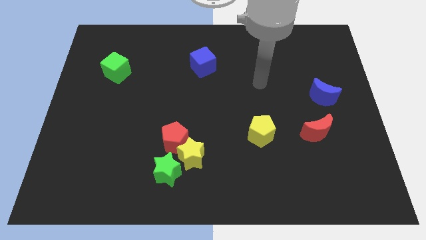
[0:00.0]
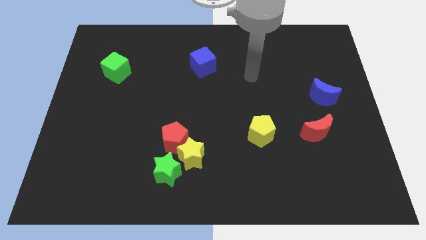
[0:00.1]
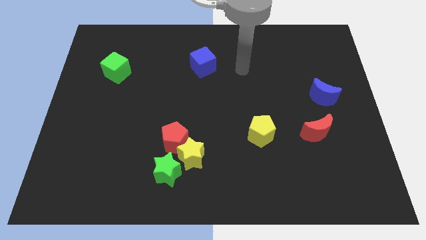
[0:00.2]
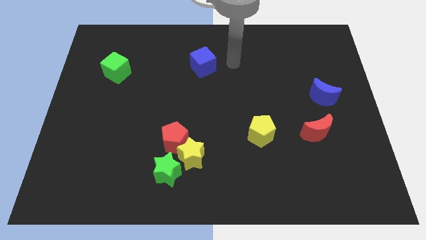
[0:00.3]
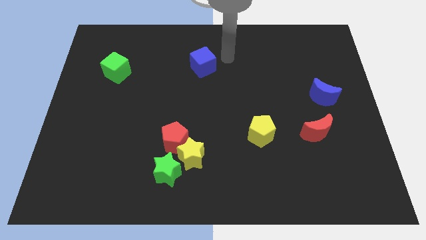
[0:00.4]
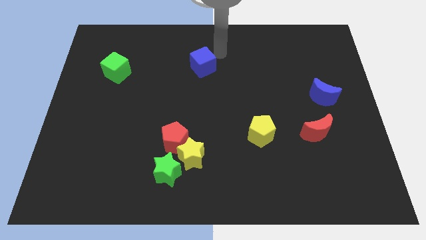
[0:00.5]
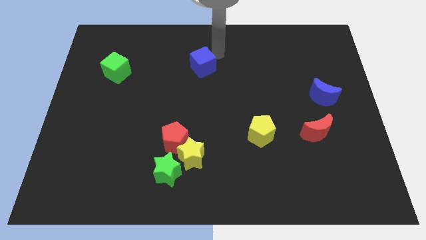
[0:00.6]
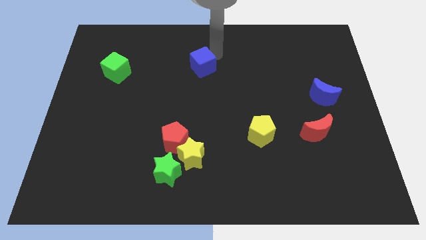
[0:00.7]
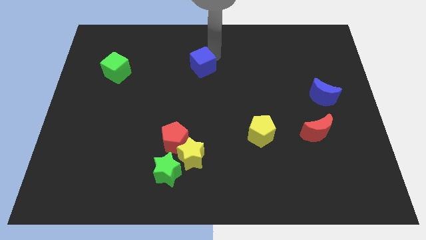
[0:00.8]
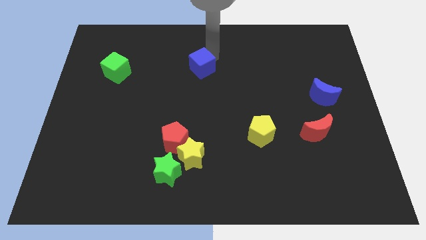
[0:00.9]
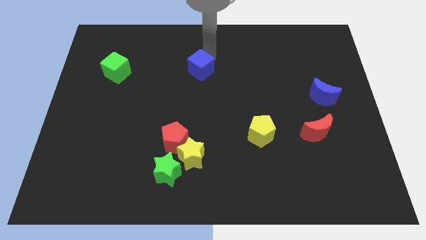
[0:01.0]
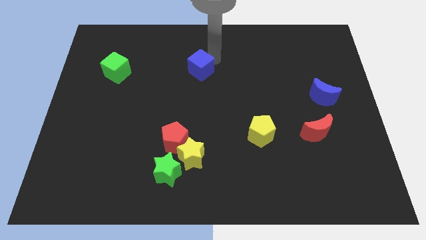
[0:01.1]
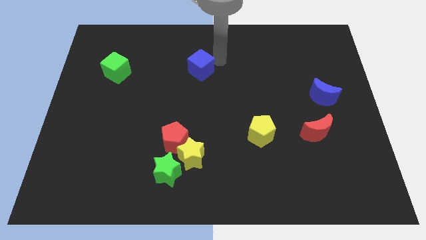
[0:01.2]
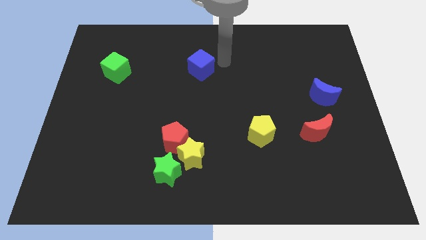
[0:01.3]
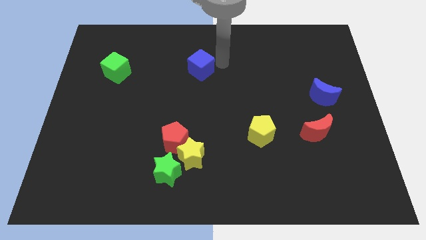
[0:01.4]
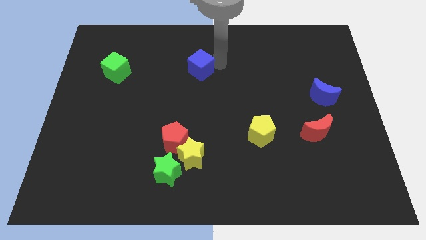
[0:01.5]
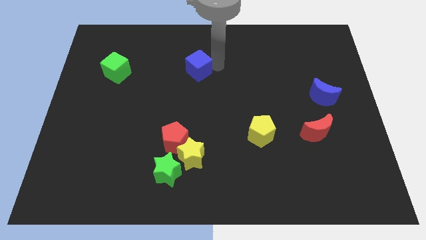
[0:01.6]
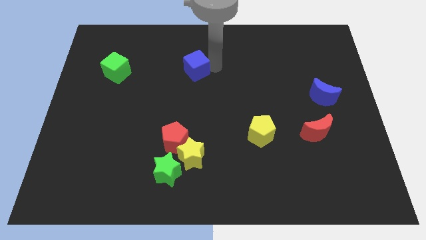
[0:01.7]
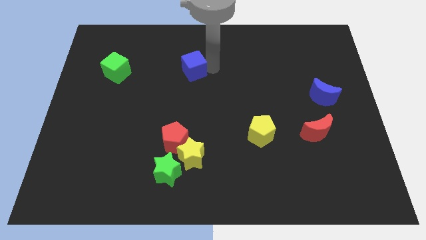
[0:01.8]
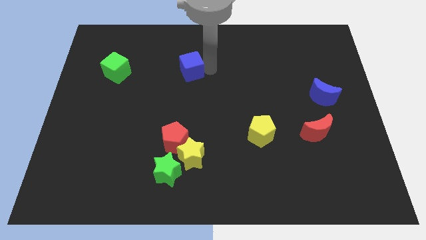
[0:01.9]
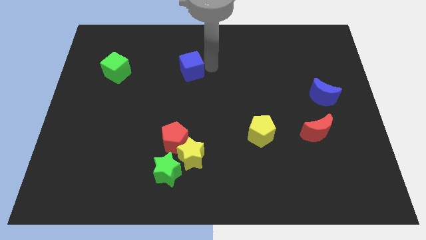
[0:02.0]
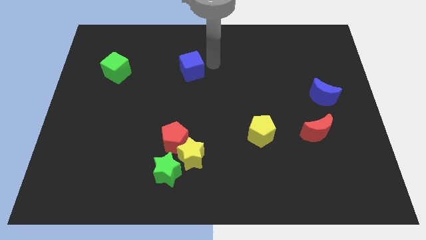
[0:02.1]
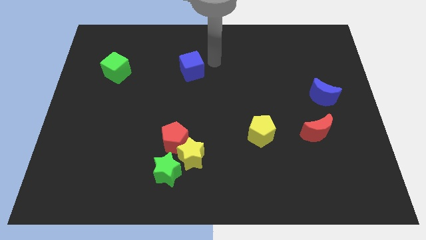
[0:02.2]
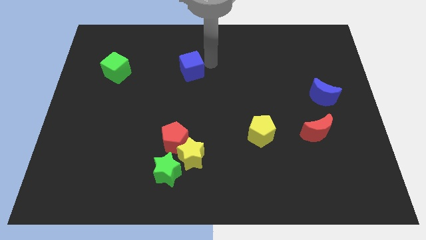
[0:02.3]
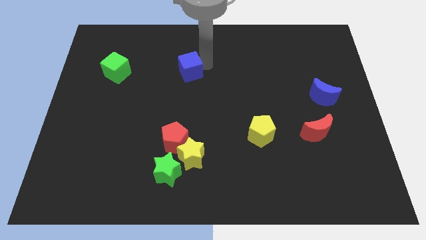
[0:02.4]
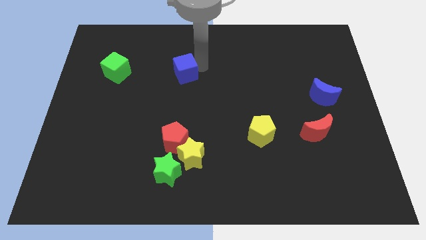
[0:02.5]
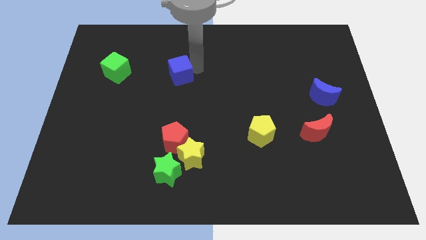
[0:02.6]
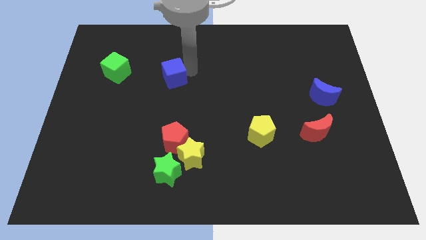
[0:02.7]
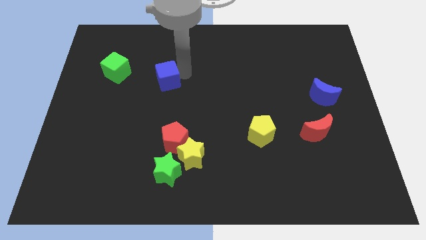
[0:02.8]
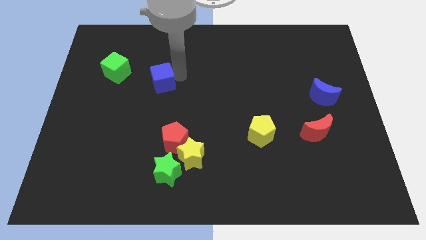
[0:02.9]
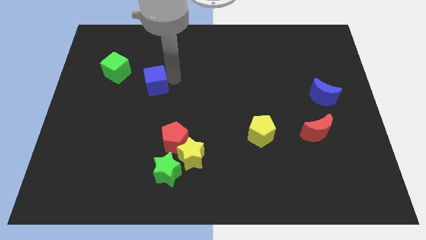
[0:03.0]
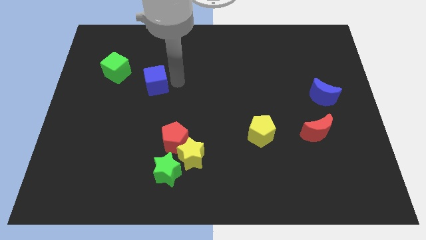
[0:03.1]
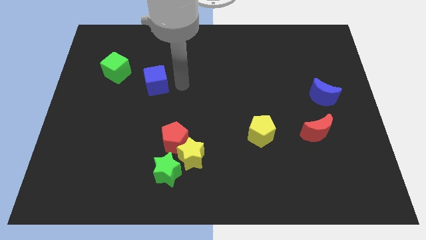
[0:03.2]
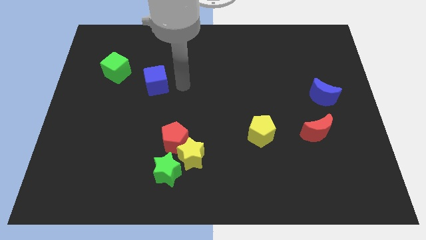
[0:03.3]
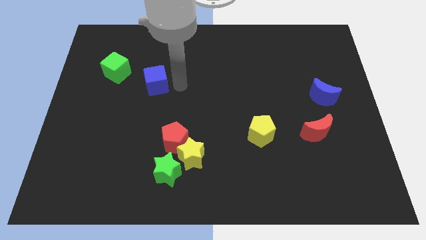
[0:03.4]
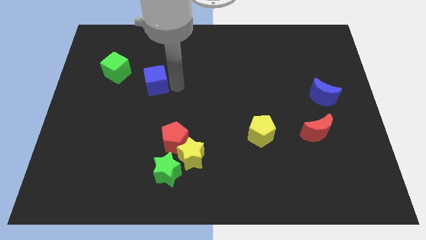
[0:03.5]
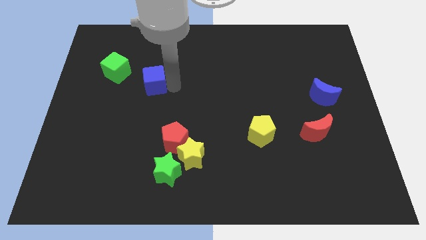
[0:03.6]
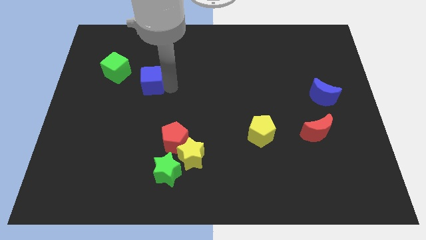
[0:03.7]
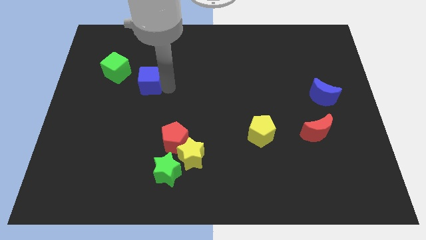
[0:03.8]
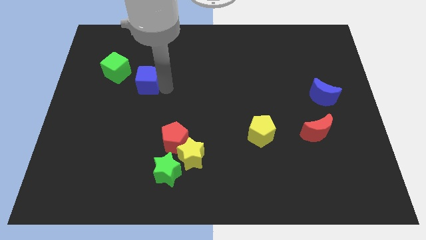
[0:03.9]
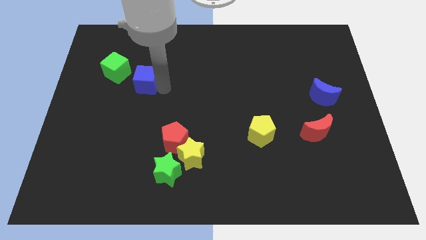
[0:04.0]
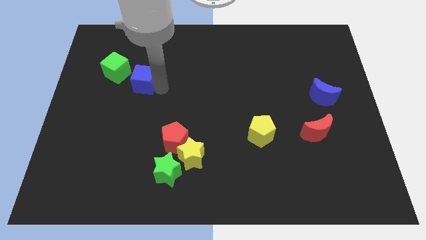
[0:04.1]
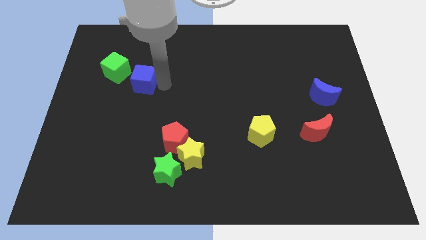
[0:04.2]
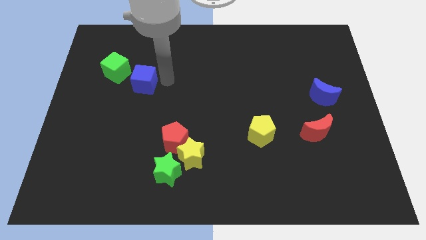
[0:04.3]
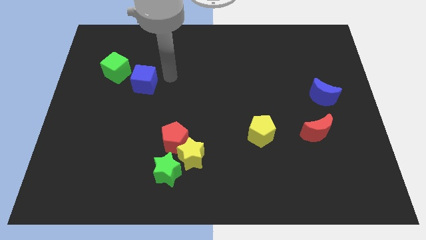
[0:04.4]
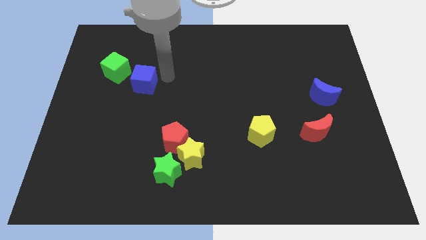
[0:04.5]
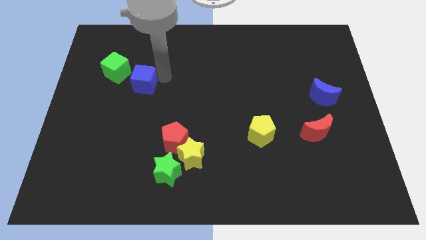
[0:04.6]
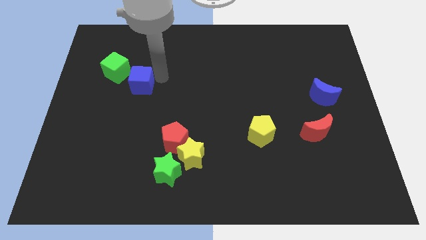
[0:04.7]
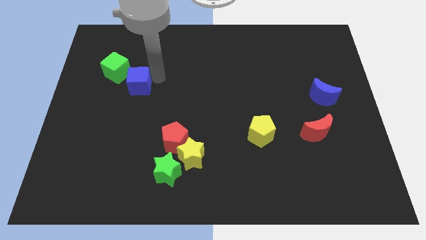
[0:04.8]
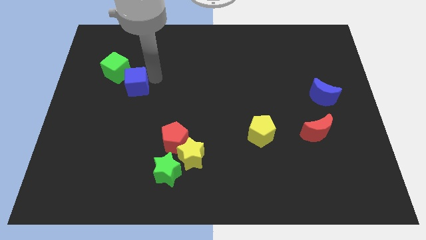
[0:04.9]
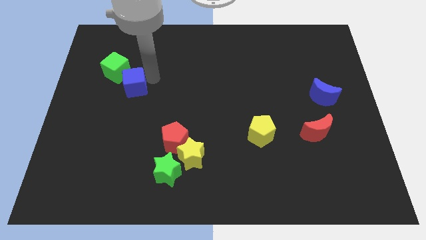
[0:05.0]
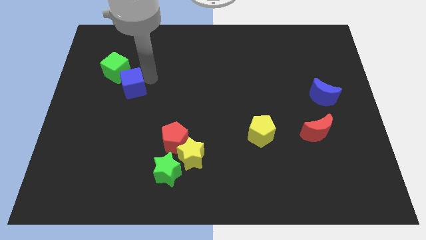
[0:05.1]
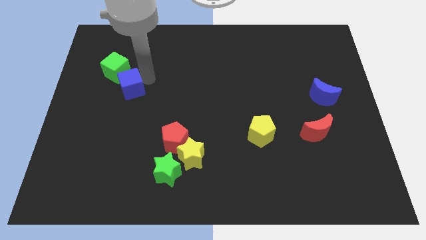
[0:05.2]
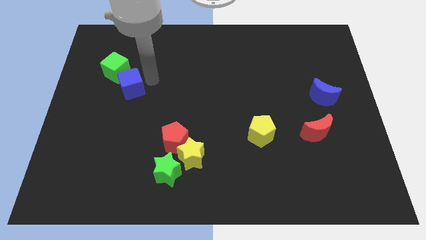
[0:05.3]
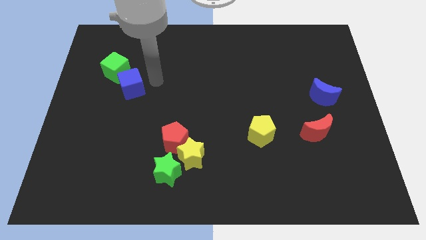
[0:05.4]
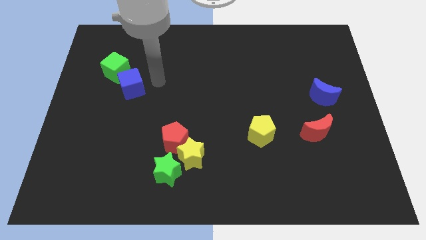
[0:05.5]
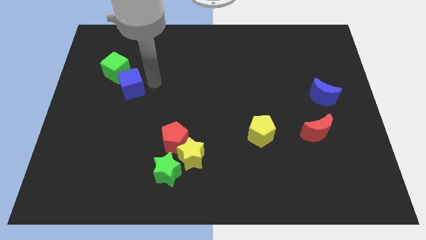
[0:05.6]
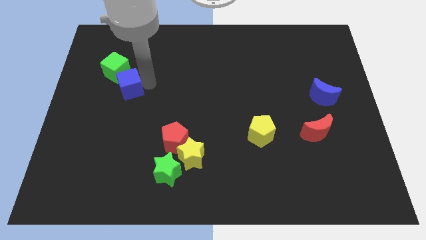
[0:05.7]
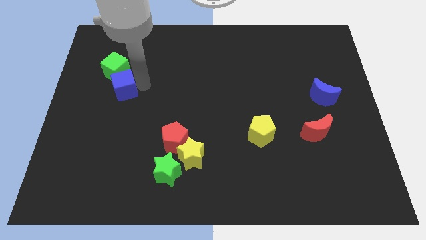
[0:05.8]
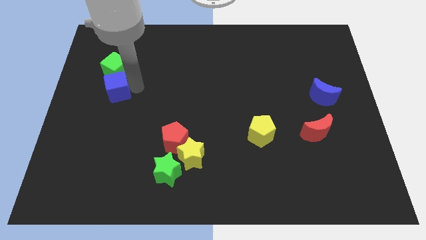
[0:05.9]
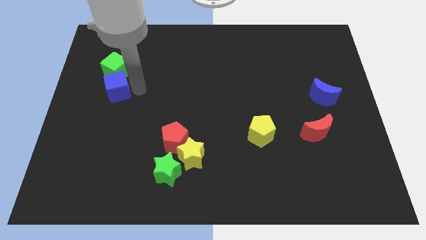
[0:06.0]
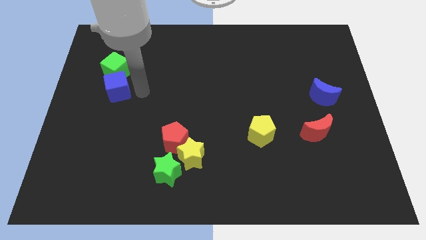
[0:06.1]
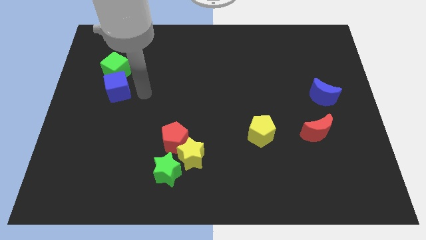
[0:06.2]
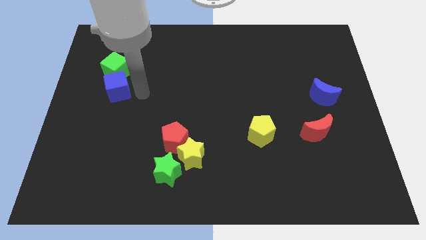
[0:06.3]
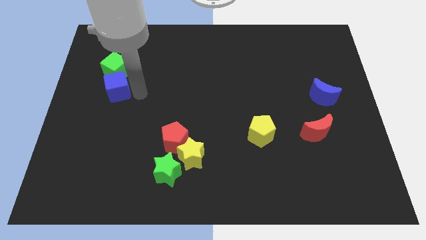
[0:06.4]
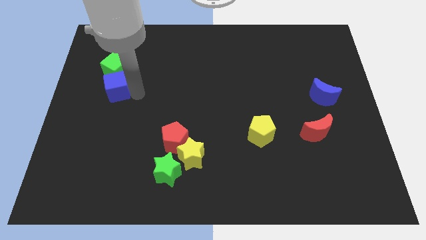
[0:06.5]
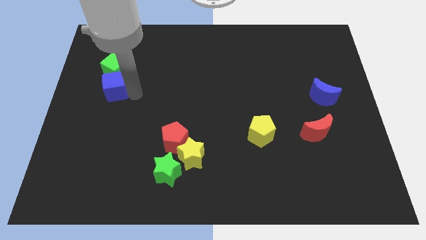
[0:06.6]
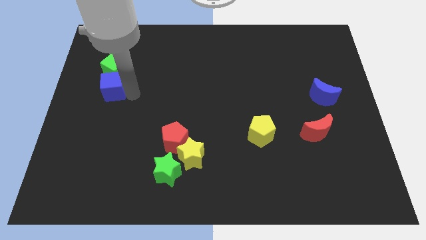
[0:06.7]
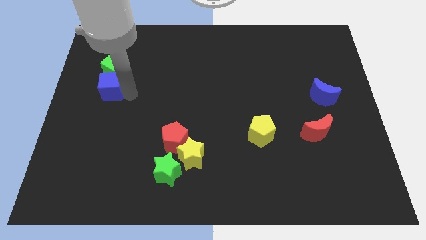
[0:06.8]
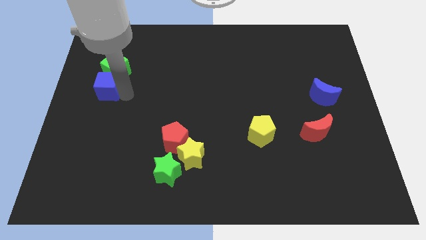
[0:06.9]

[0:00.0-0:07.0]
push the blue cube to the left side of the board
